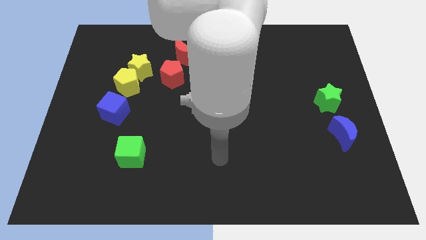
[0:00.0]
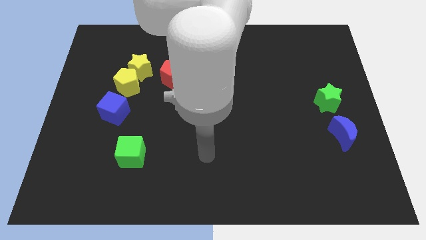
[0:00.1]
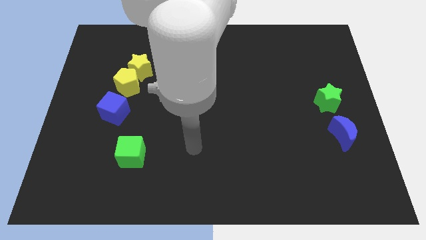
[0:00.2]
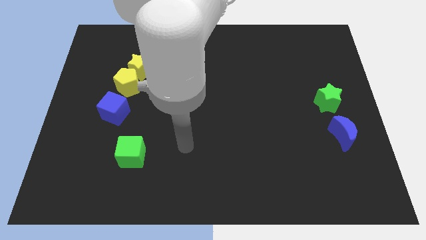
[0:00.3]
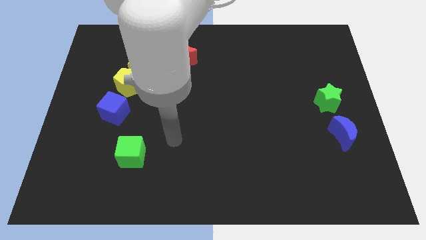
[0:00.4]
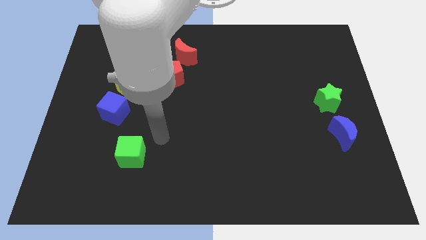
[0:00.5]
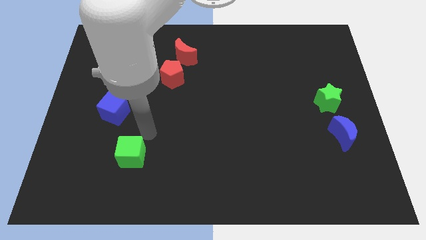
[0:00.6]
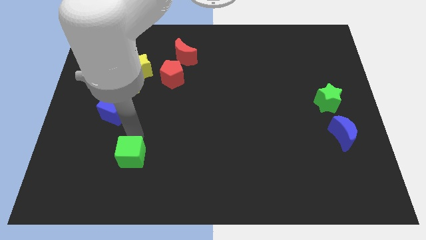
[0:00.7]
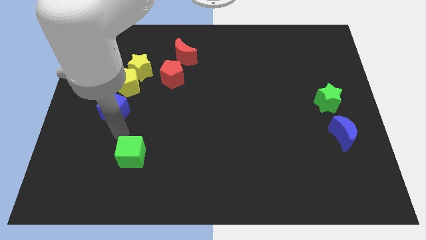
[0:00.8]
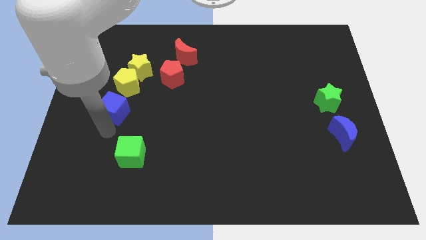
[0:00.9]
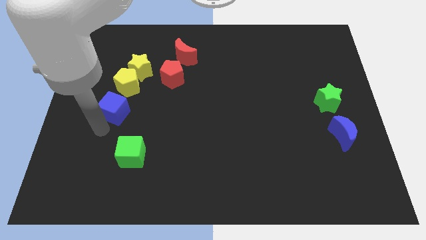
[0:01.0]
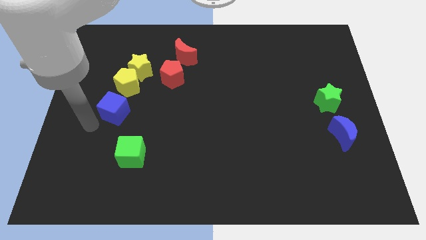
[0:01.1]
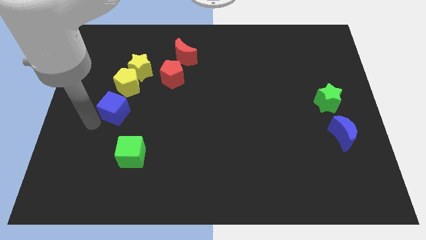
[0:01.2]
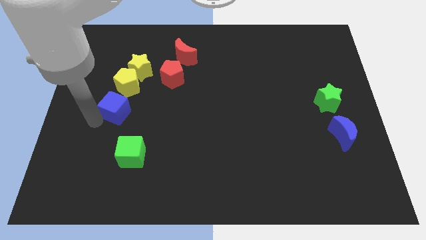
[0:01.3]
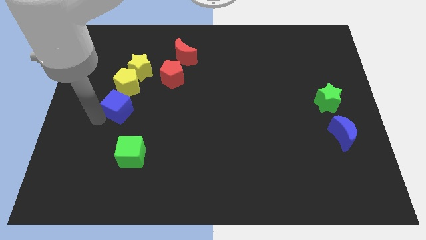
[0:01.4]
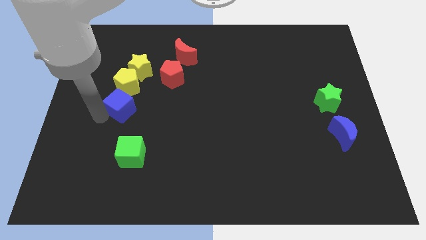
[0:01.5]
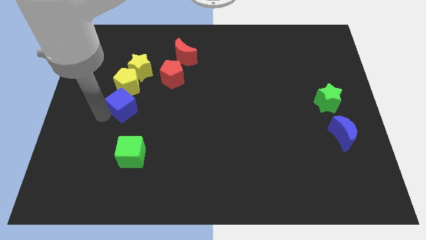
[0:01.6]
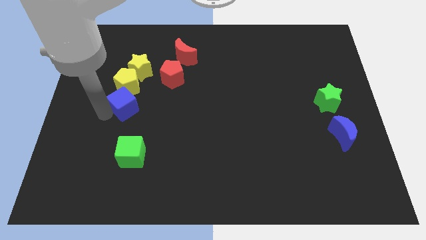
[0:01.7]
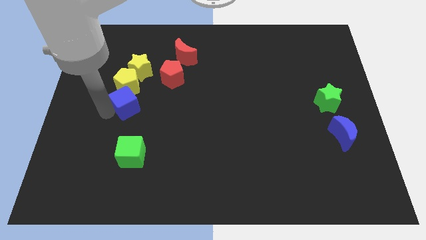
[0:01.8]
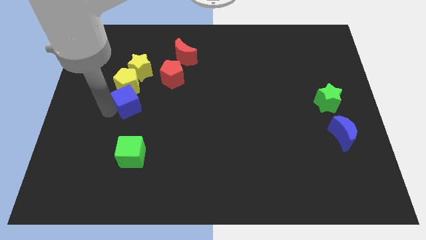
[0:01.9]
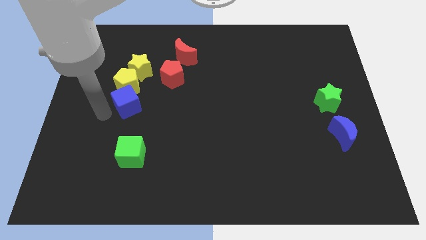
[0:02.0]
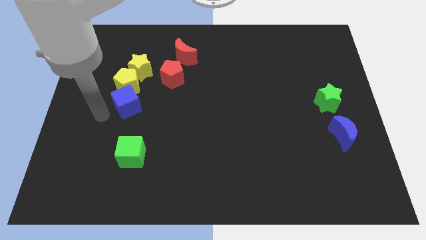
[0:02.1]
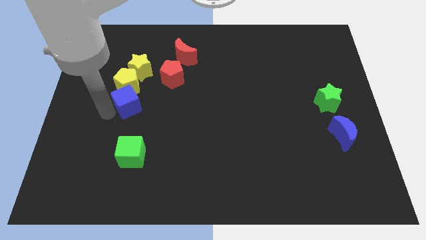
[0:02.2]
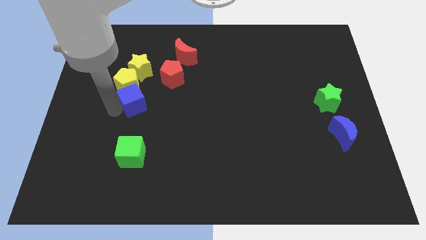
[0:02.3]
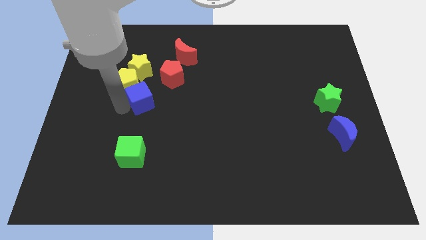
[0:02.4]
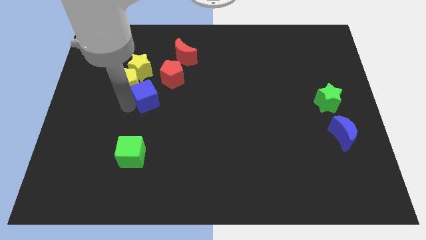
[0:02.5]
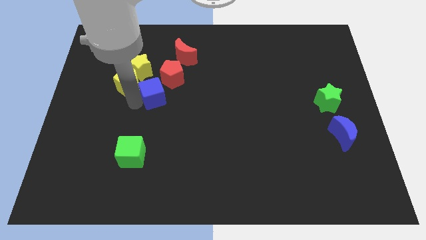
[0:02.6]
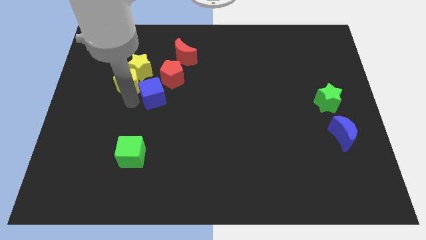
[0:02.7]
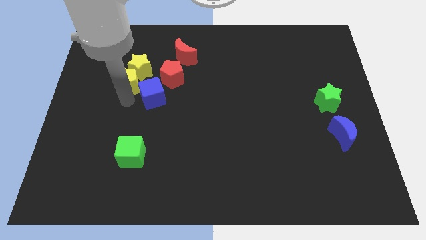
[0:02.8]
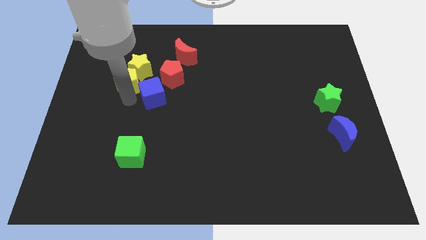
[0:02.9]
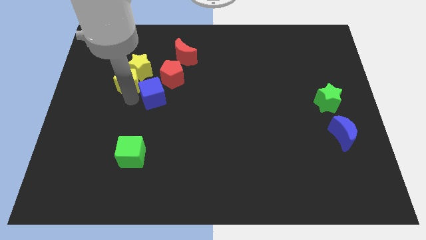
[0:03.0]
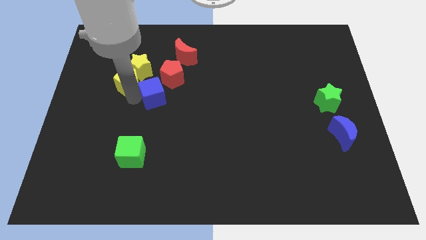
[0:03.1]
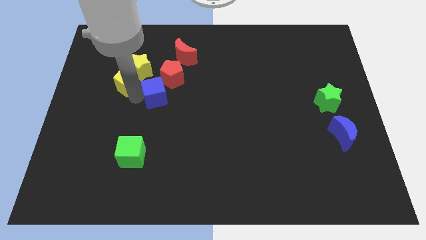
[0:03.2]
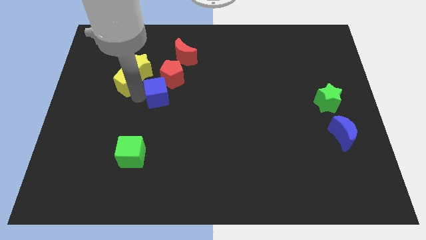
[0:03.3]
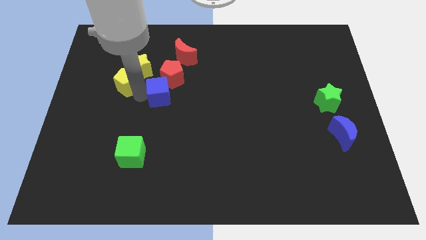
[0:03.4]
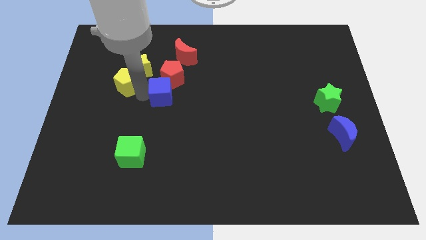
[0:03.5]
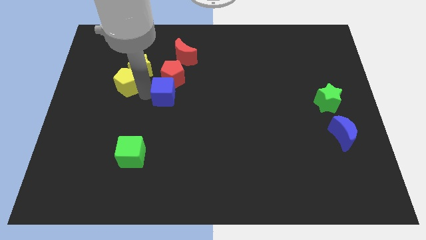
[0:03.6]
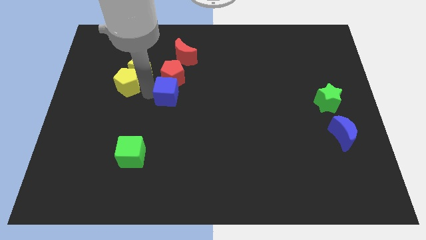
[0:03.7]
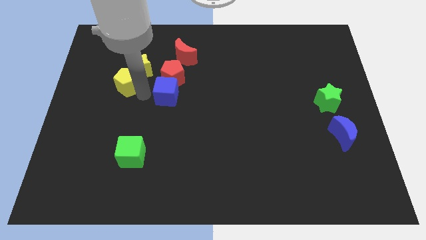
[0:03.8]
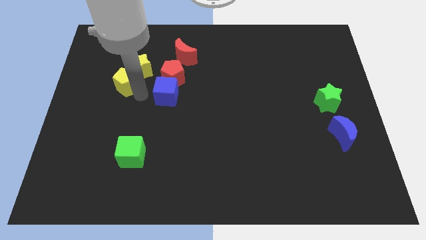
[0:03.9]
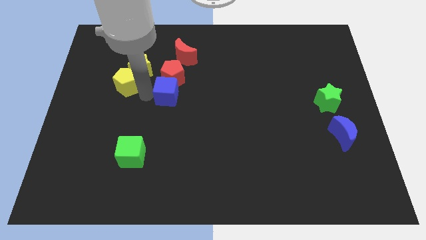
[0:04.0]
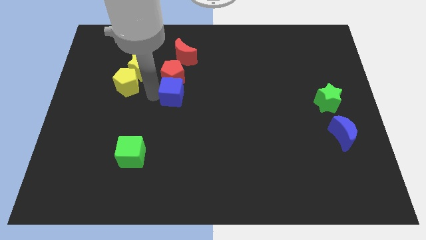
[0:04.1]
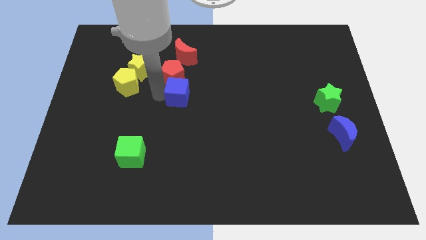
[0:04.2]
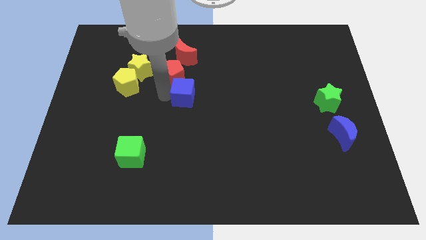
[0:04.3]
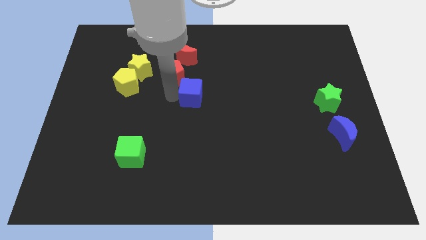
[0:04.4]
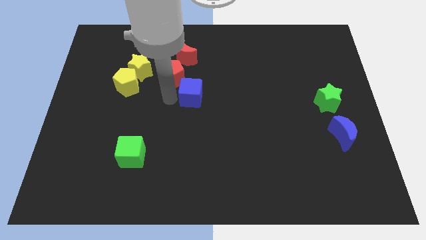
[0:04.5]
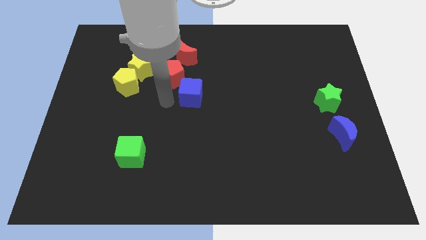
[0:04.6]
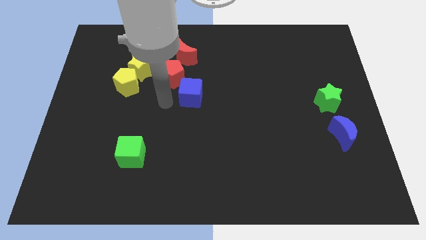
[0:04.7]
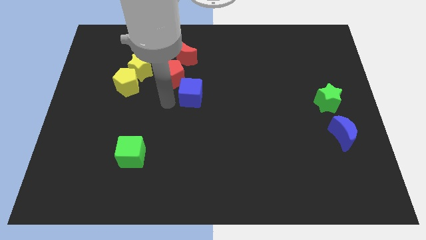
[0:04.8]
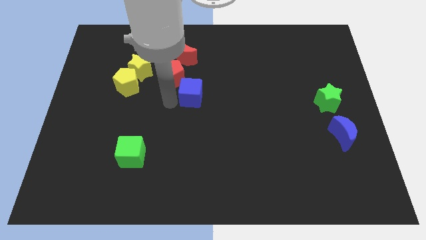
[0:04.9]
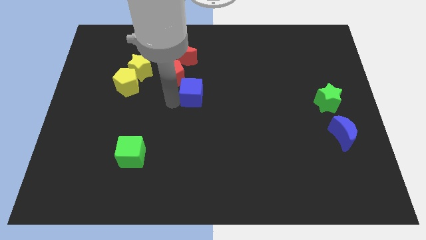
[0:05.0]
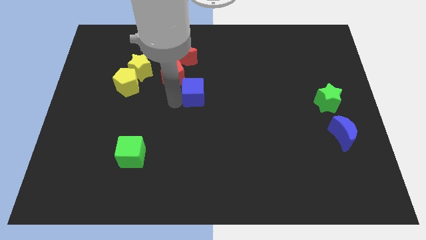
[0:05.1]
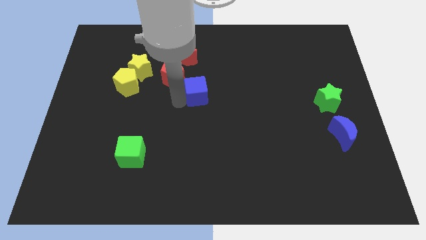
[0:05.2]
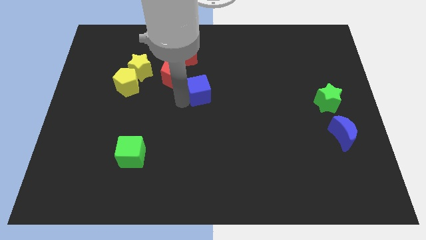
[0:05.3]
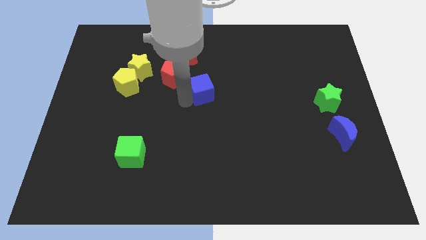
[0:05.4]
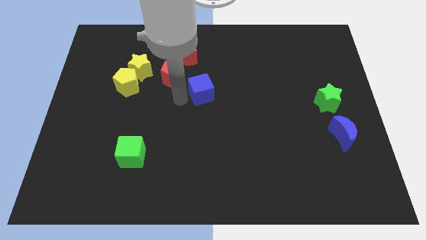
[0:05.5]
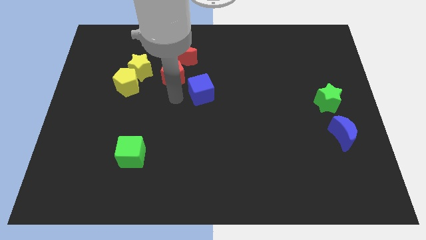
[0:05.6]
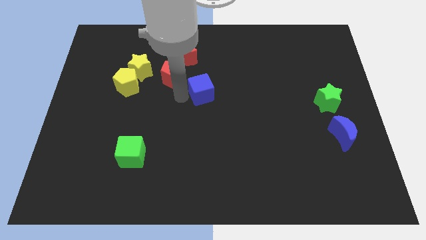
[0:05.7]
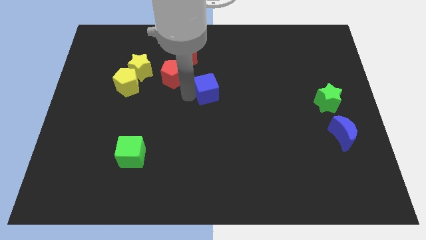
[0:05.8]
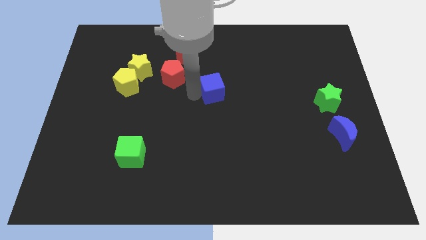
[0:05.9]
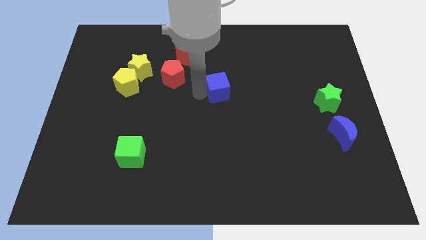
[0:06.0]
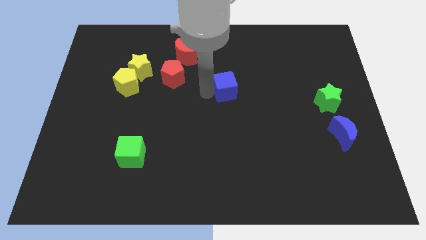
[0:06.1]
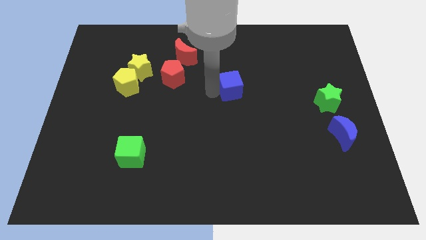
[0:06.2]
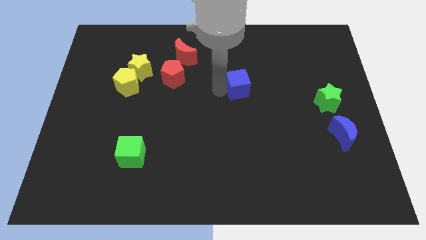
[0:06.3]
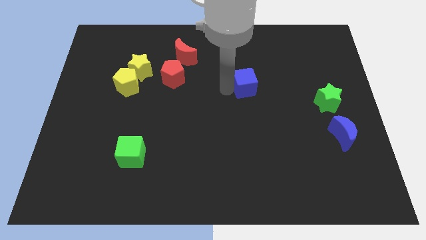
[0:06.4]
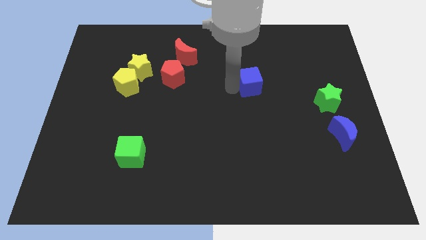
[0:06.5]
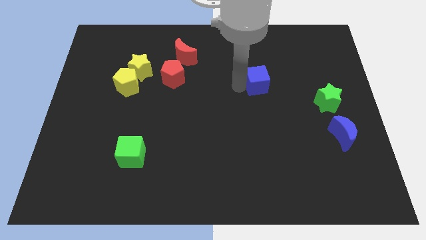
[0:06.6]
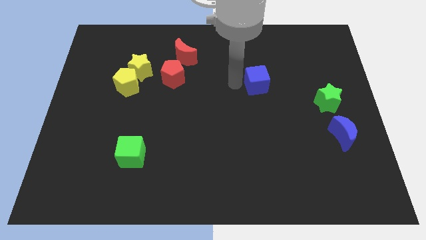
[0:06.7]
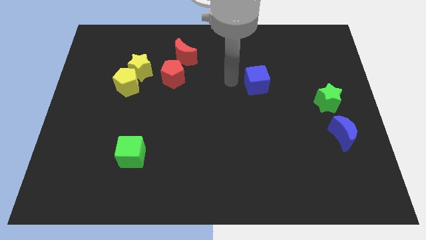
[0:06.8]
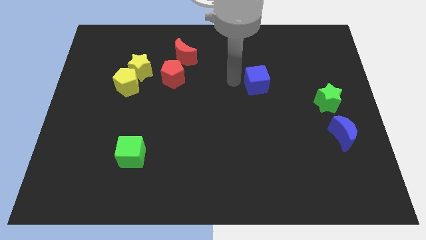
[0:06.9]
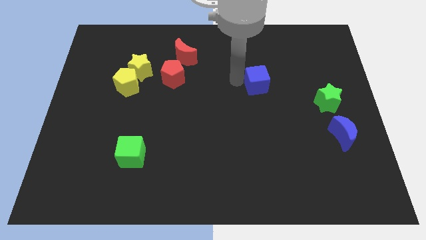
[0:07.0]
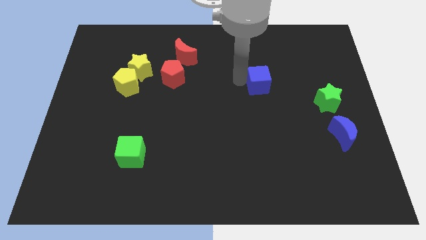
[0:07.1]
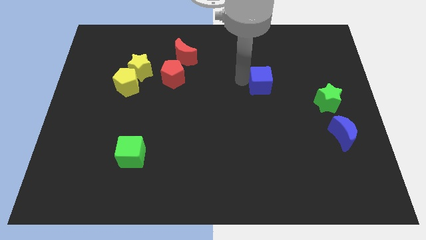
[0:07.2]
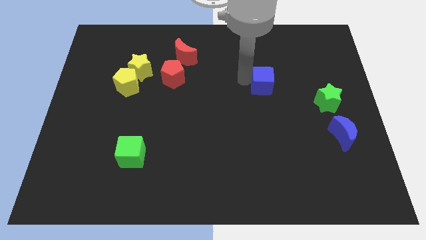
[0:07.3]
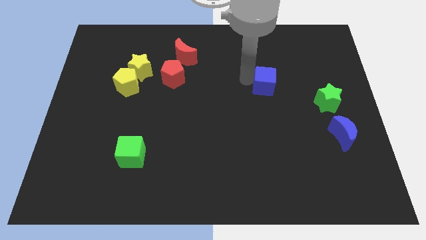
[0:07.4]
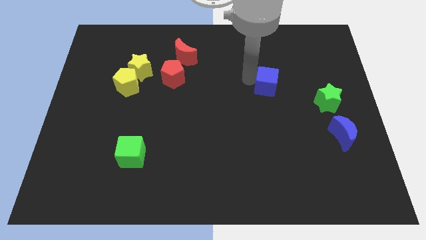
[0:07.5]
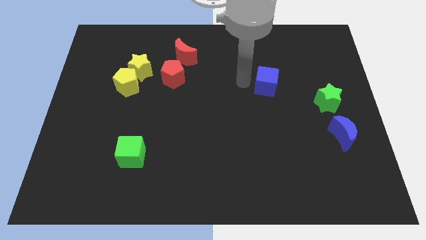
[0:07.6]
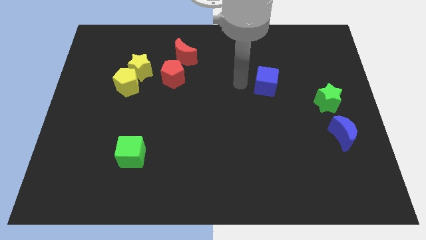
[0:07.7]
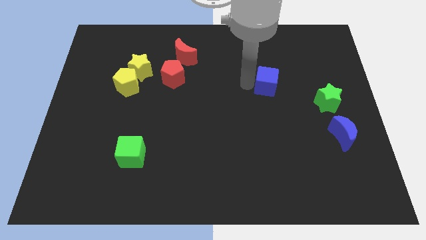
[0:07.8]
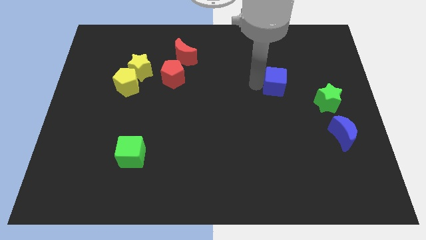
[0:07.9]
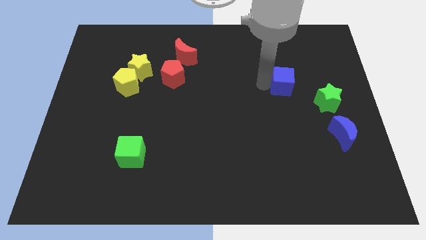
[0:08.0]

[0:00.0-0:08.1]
push the blue cube to the top left side of the green star

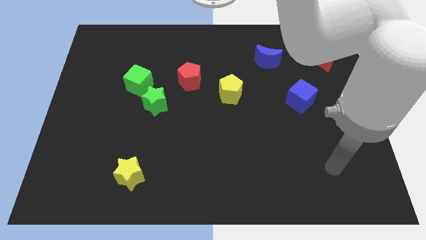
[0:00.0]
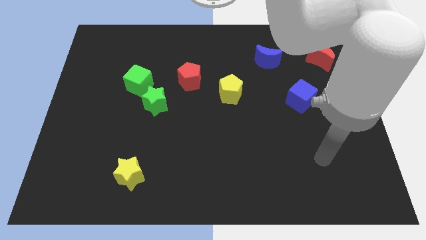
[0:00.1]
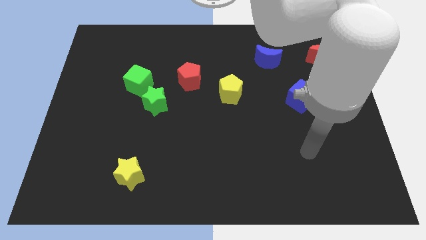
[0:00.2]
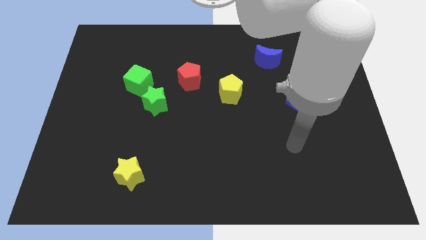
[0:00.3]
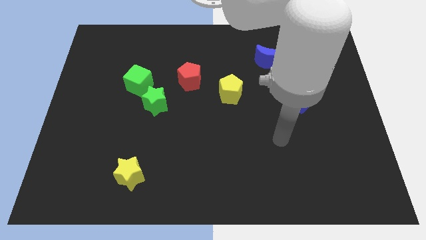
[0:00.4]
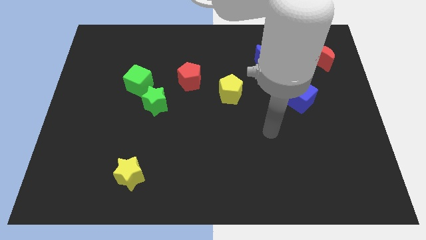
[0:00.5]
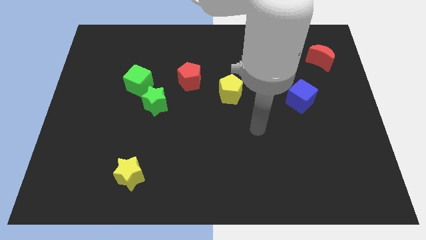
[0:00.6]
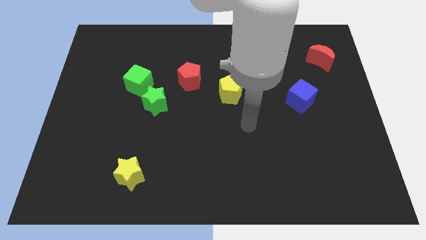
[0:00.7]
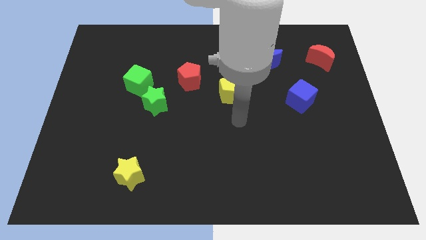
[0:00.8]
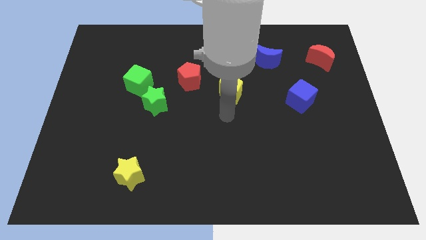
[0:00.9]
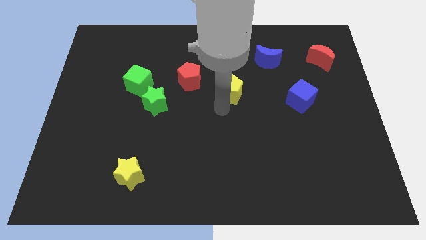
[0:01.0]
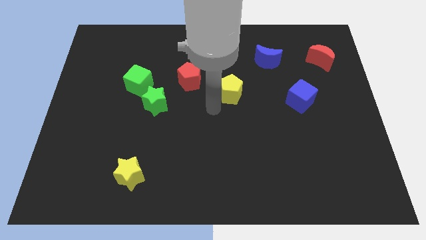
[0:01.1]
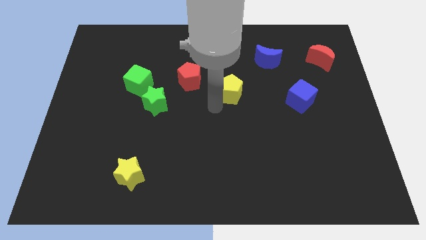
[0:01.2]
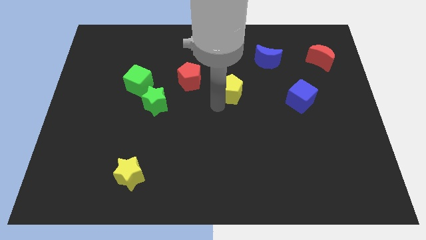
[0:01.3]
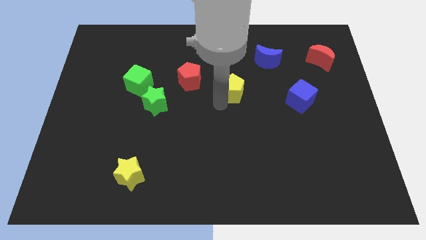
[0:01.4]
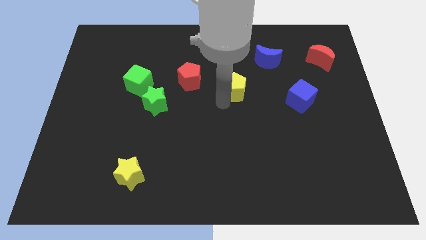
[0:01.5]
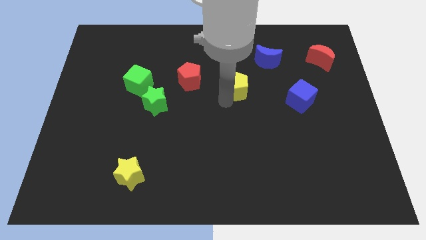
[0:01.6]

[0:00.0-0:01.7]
move the yellow pentagon to the bottom left of the blue moon
